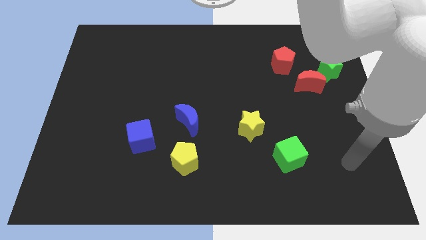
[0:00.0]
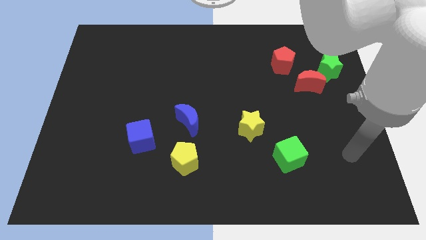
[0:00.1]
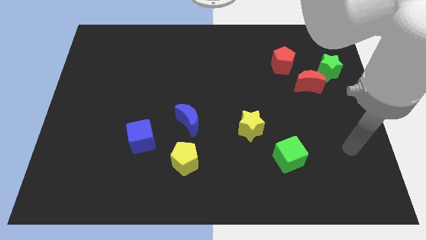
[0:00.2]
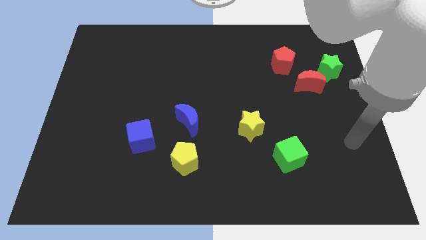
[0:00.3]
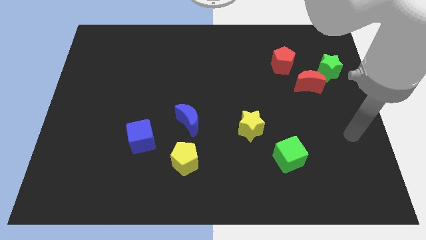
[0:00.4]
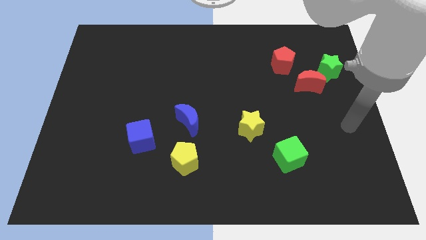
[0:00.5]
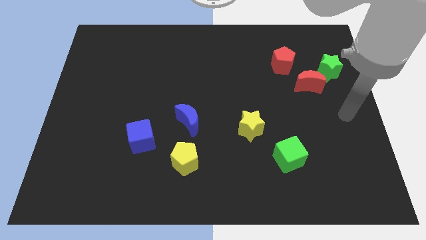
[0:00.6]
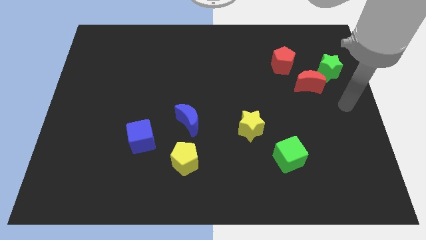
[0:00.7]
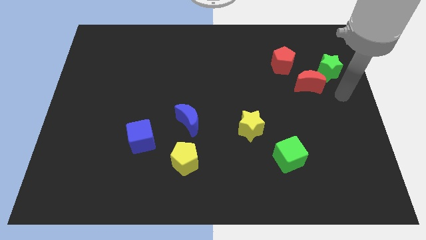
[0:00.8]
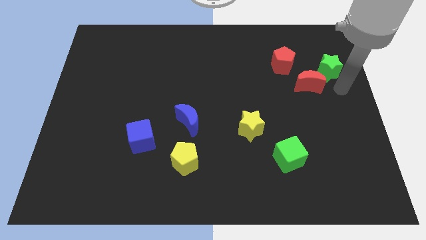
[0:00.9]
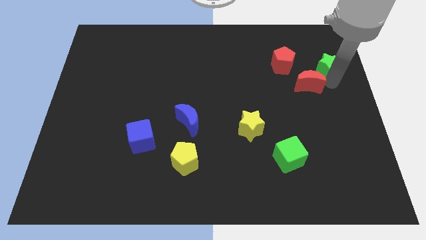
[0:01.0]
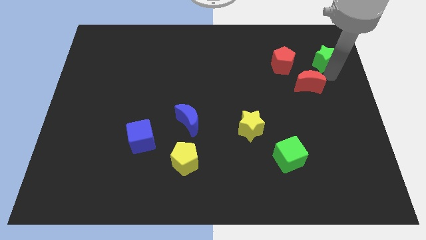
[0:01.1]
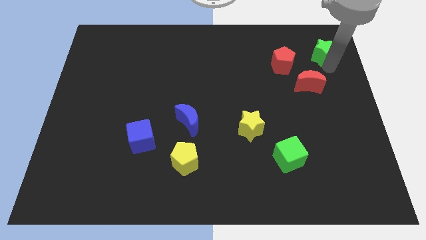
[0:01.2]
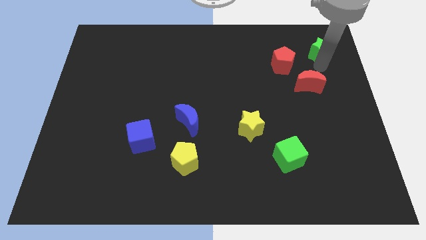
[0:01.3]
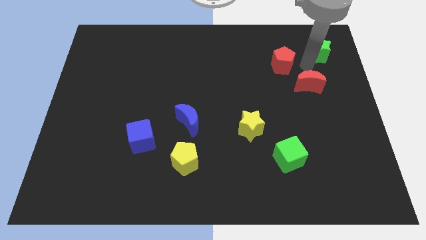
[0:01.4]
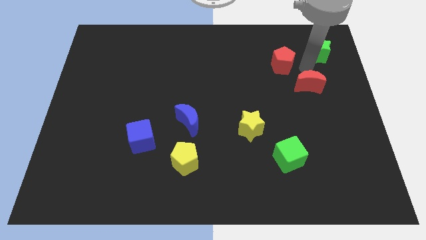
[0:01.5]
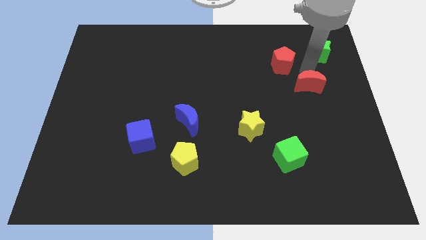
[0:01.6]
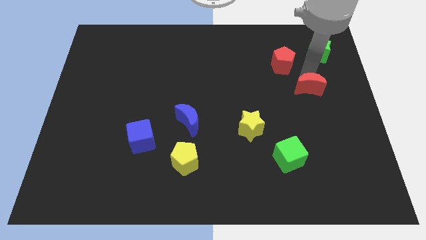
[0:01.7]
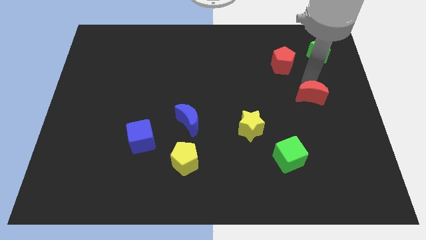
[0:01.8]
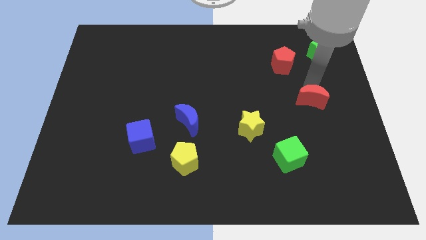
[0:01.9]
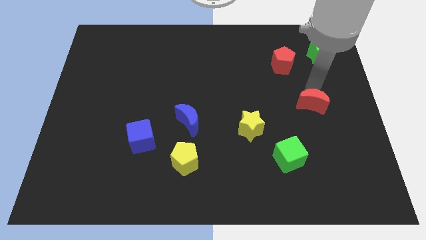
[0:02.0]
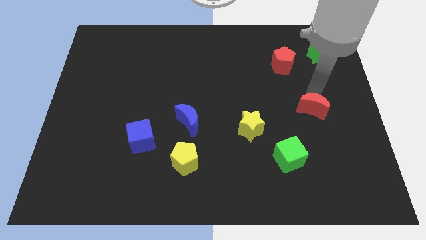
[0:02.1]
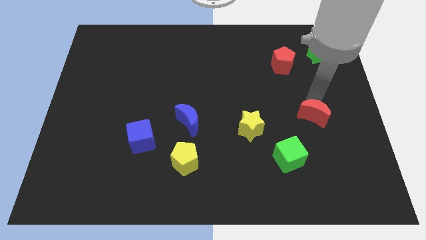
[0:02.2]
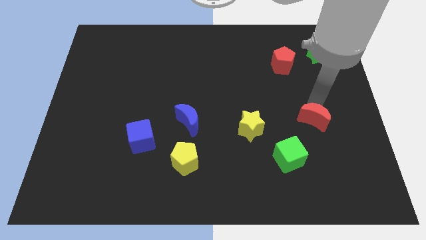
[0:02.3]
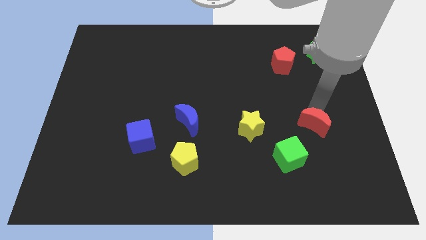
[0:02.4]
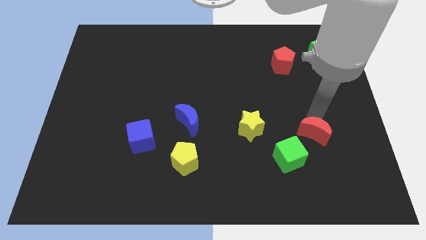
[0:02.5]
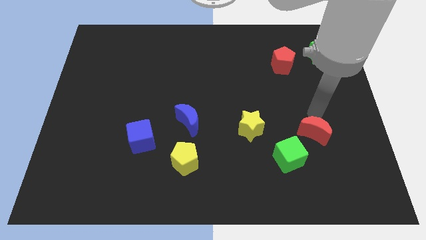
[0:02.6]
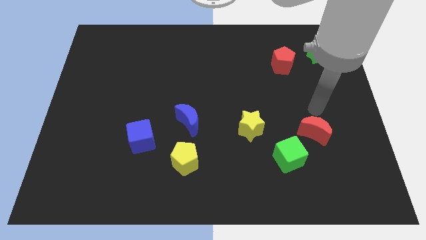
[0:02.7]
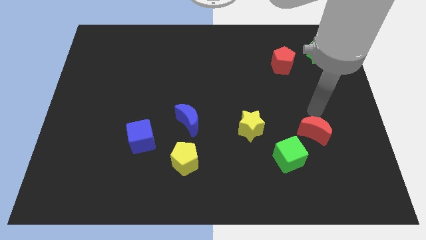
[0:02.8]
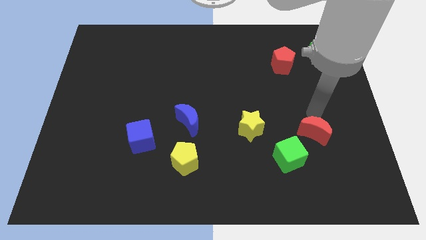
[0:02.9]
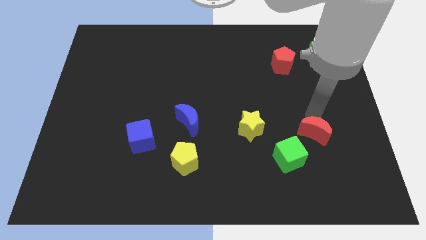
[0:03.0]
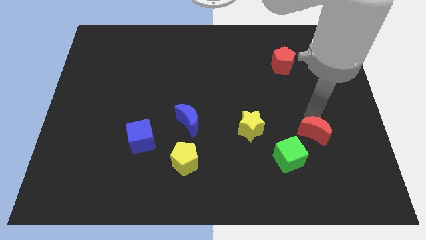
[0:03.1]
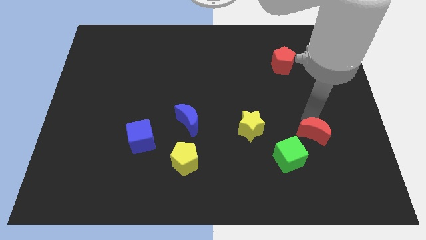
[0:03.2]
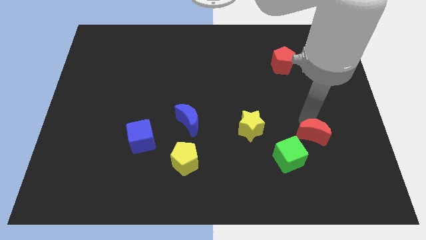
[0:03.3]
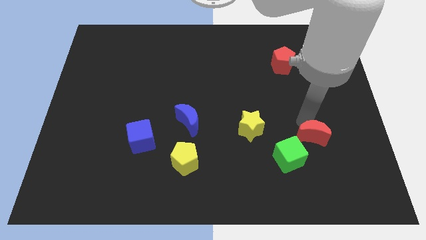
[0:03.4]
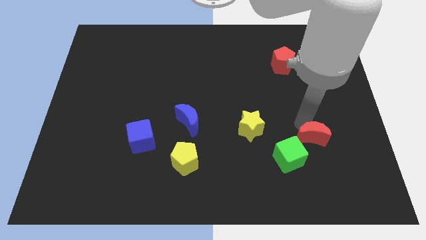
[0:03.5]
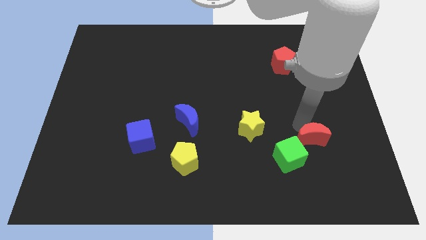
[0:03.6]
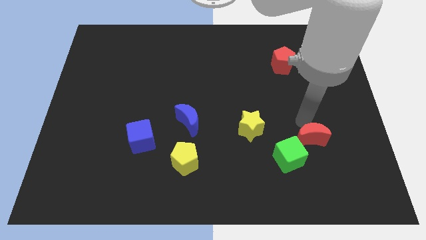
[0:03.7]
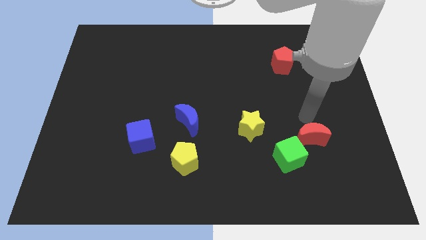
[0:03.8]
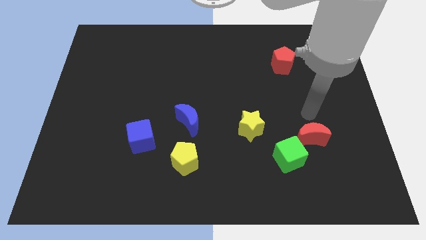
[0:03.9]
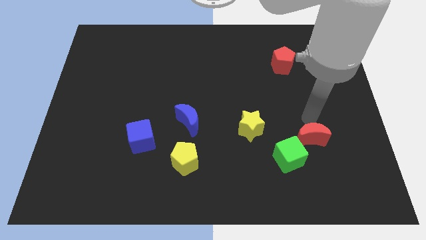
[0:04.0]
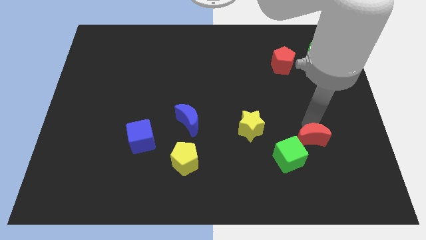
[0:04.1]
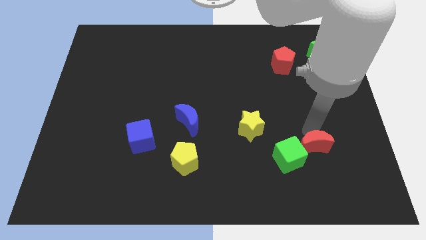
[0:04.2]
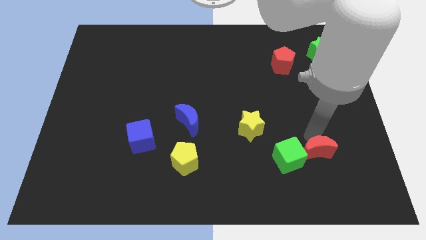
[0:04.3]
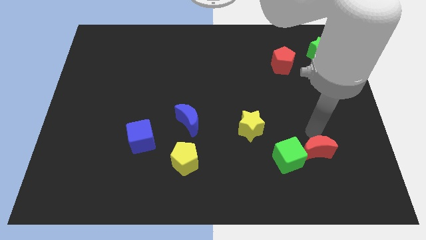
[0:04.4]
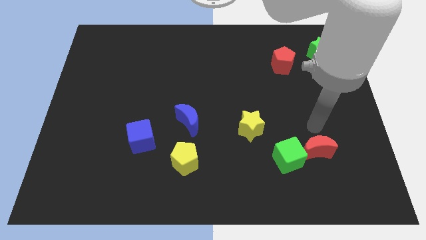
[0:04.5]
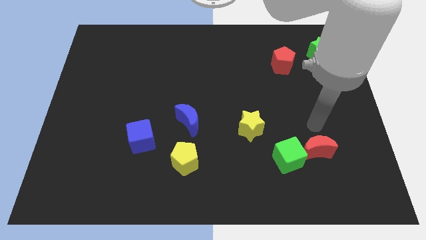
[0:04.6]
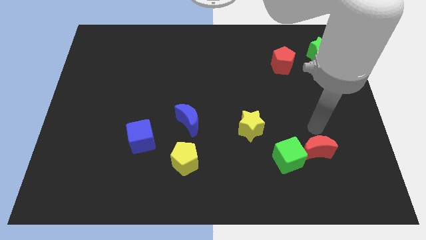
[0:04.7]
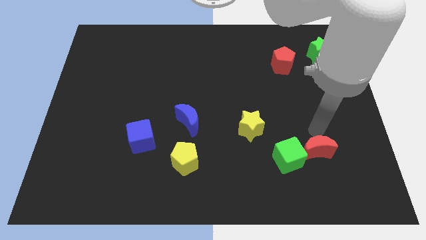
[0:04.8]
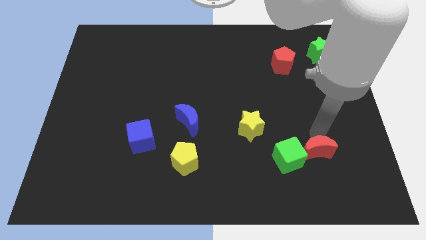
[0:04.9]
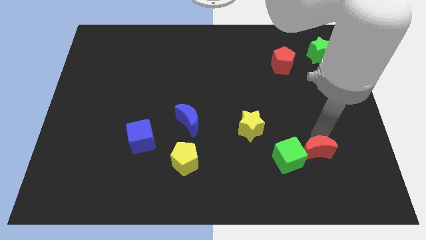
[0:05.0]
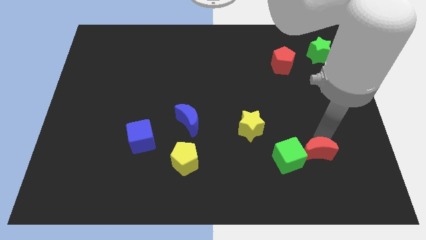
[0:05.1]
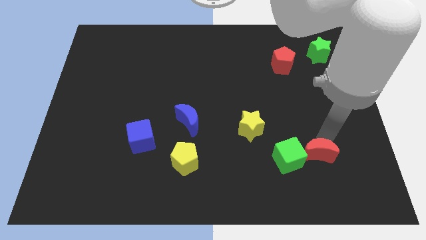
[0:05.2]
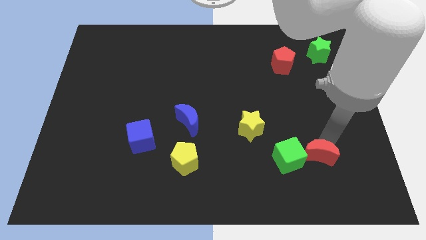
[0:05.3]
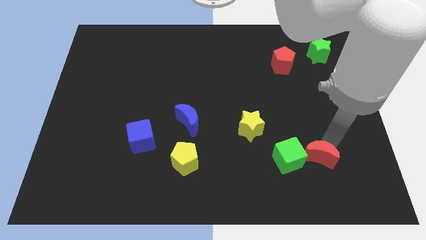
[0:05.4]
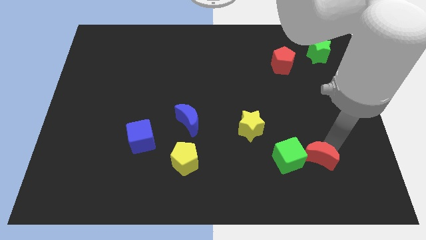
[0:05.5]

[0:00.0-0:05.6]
push the red moon diagonally down and to the right of the green cube

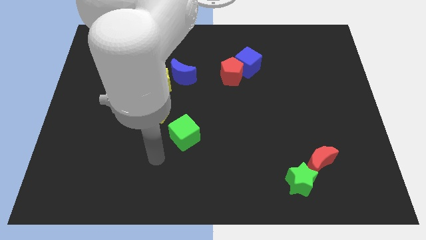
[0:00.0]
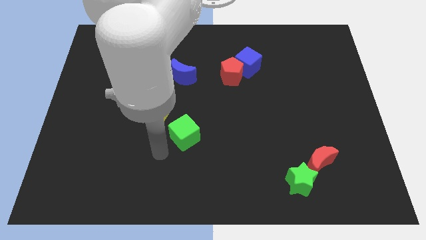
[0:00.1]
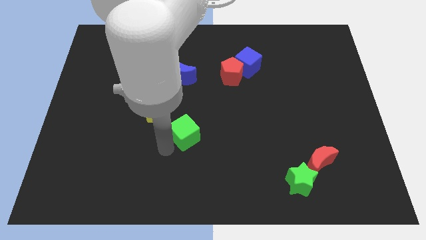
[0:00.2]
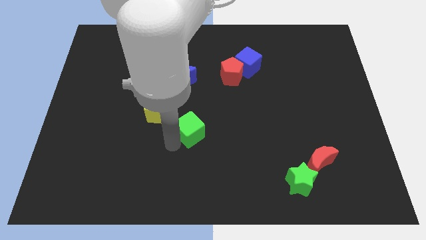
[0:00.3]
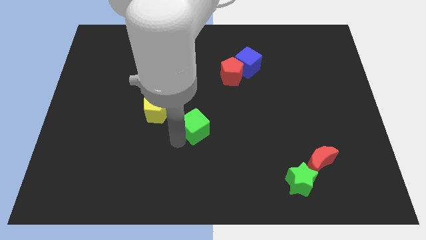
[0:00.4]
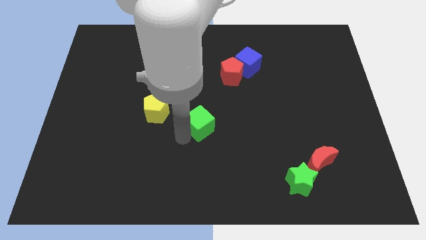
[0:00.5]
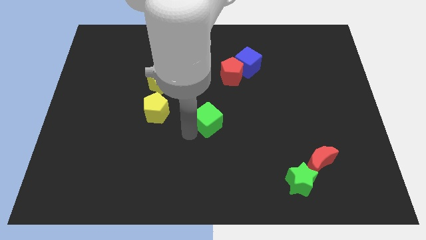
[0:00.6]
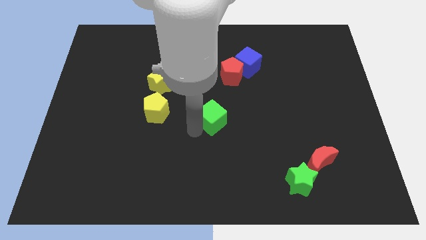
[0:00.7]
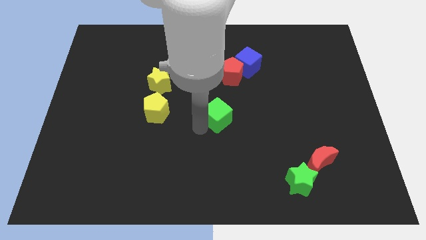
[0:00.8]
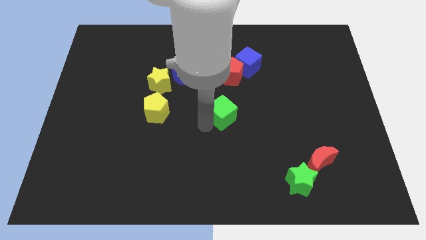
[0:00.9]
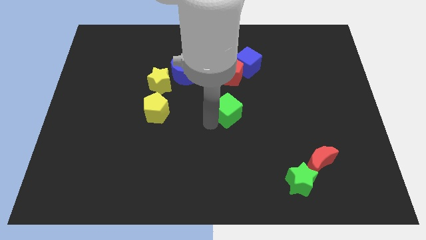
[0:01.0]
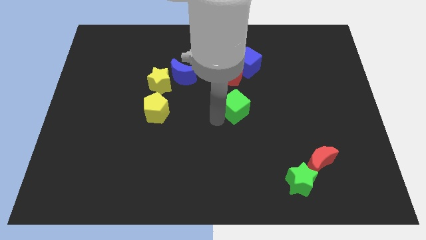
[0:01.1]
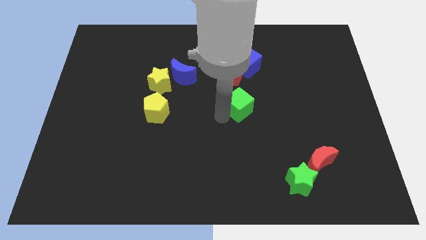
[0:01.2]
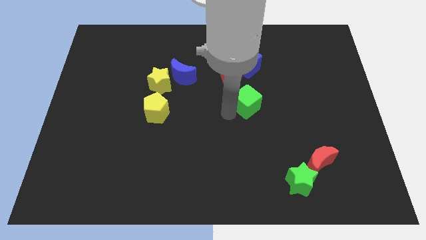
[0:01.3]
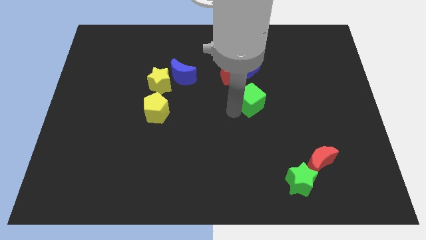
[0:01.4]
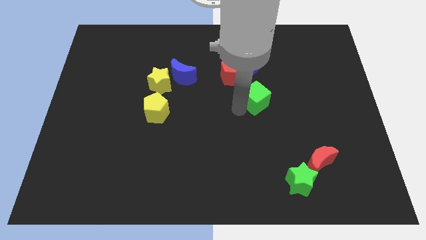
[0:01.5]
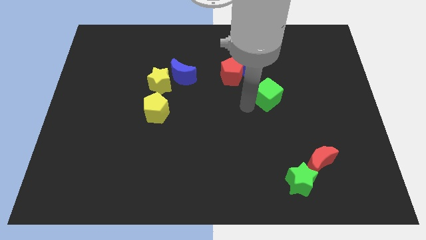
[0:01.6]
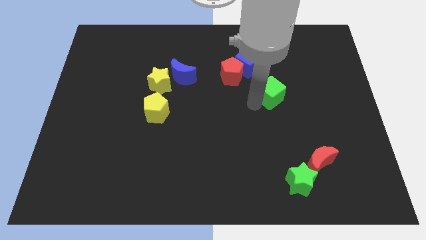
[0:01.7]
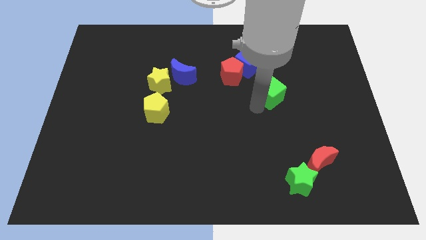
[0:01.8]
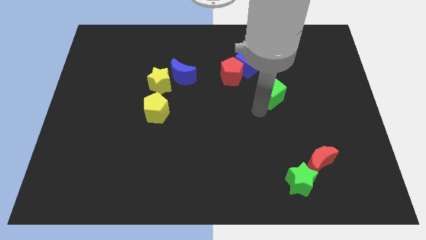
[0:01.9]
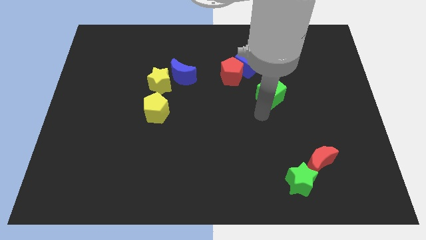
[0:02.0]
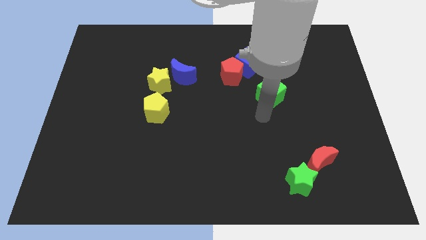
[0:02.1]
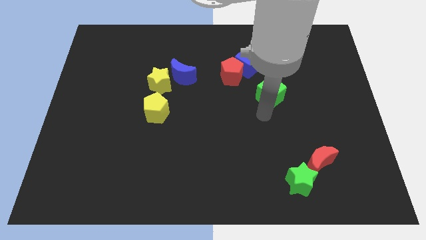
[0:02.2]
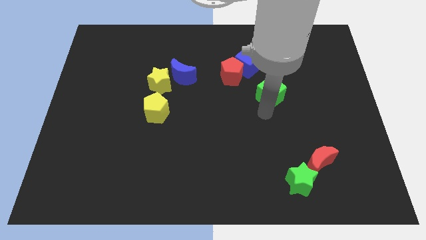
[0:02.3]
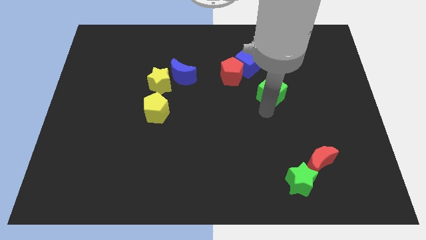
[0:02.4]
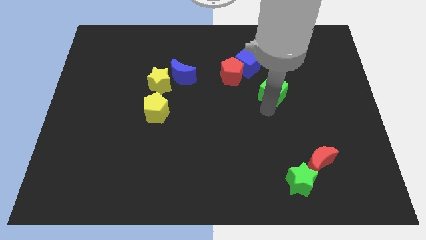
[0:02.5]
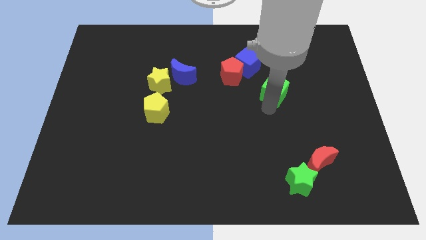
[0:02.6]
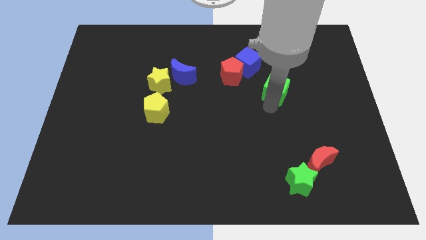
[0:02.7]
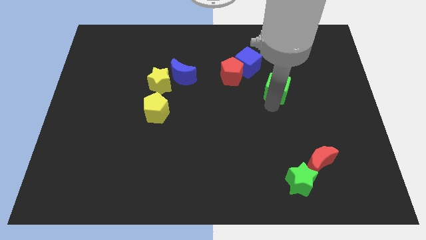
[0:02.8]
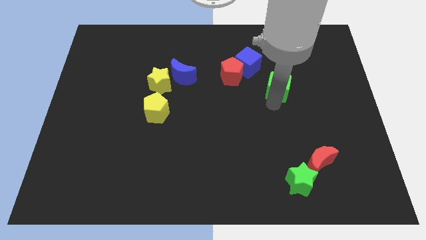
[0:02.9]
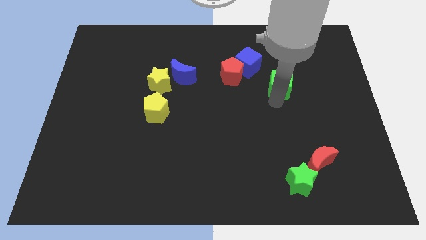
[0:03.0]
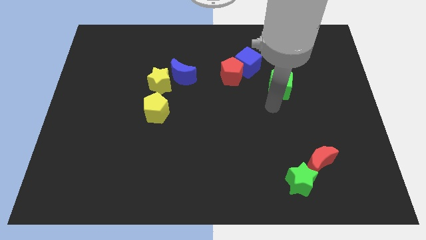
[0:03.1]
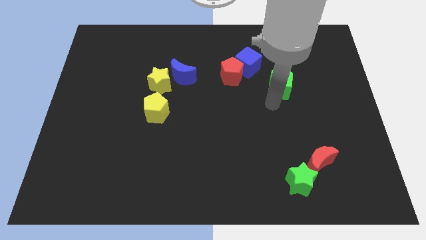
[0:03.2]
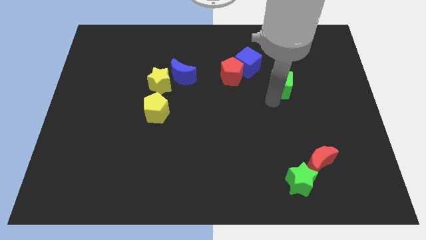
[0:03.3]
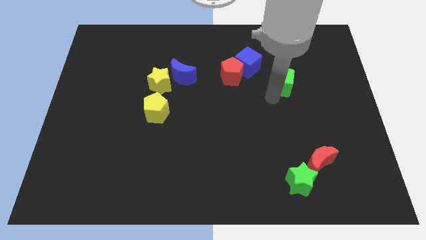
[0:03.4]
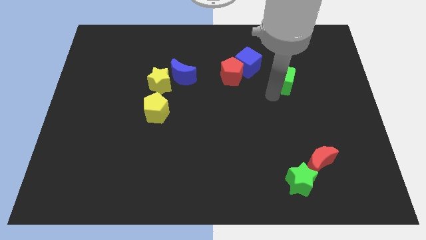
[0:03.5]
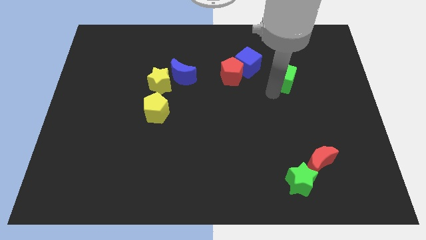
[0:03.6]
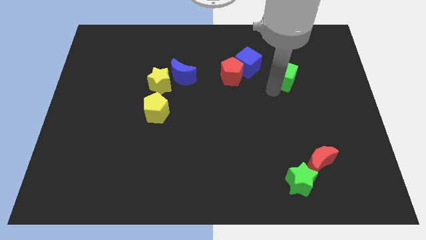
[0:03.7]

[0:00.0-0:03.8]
slide the green cube to the right of the blue cube
